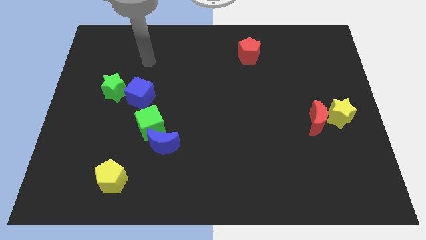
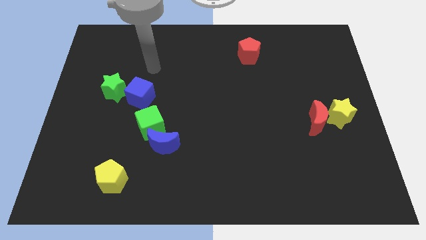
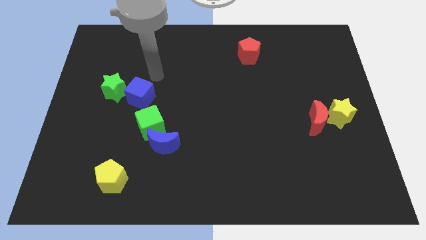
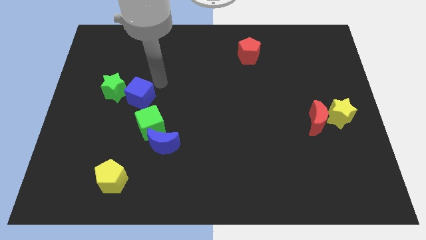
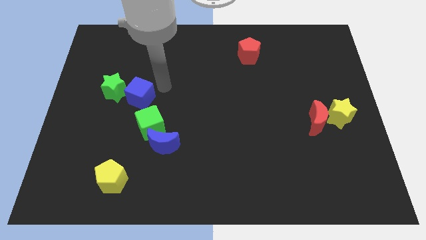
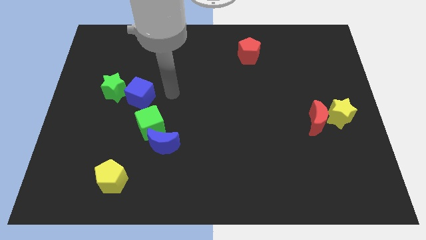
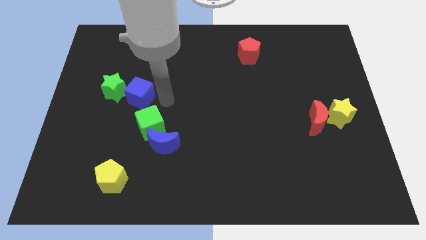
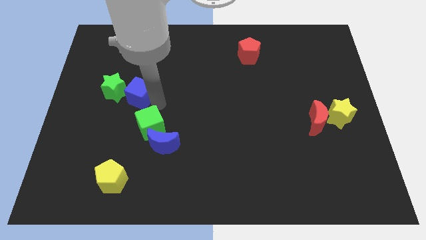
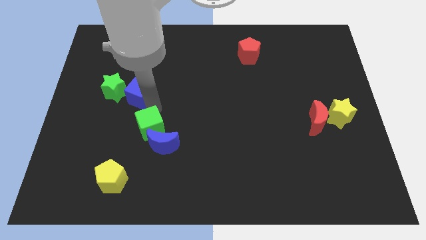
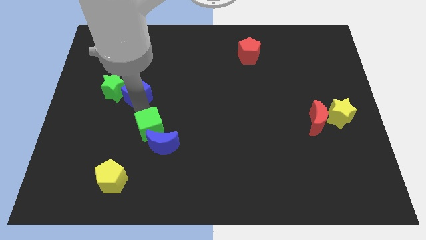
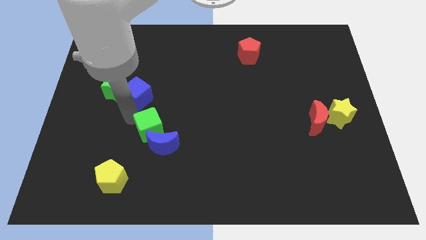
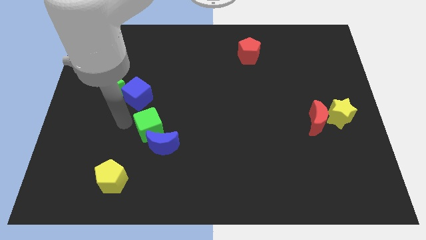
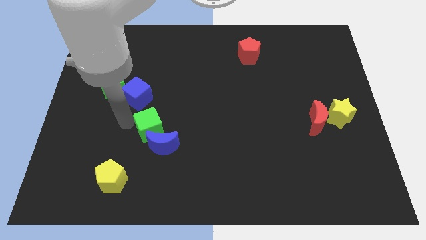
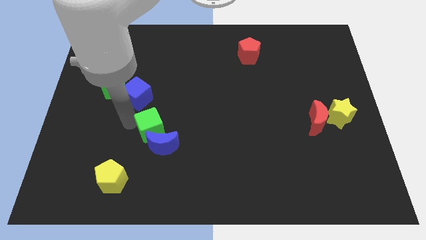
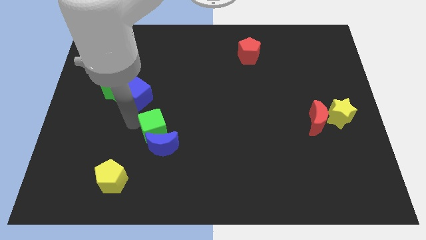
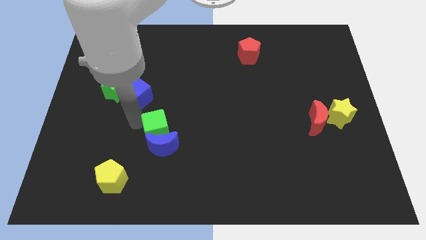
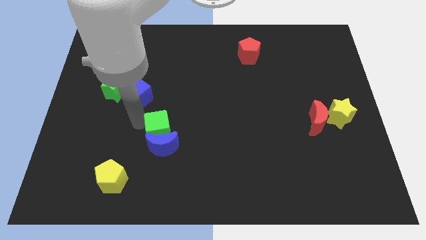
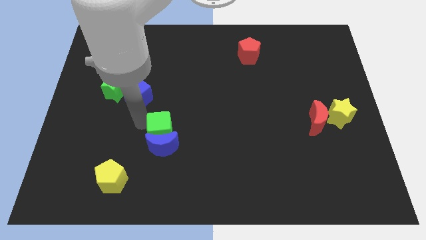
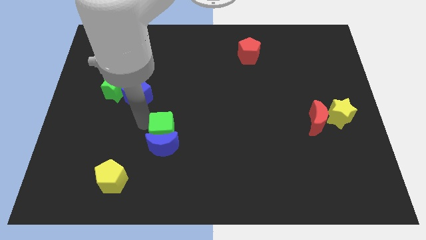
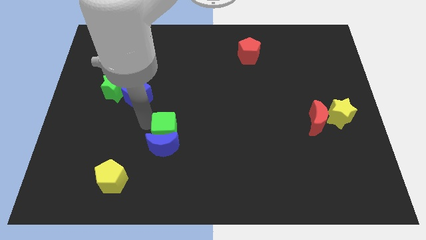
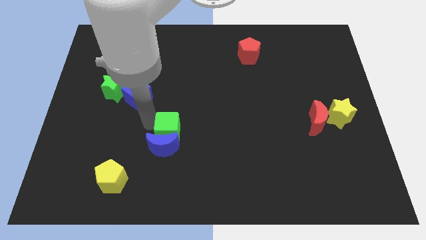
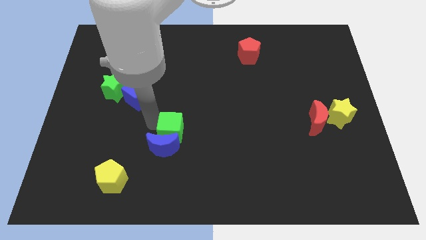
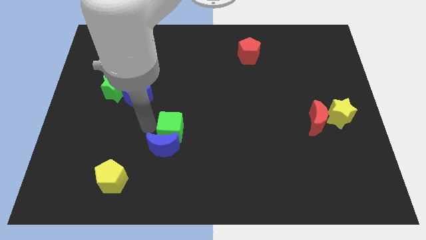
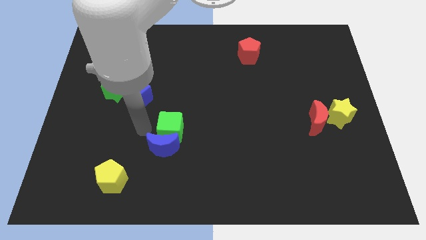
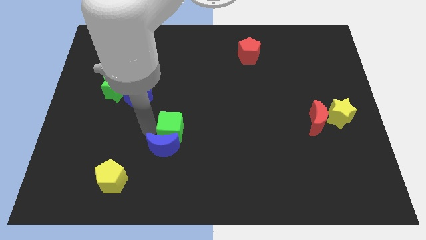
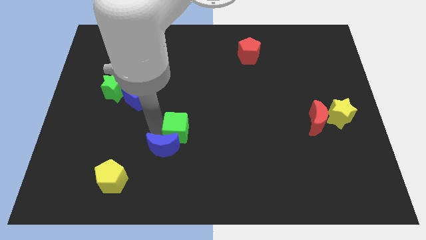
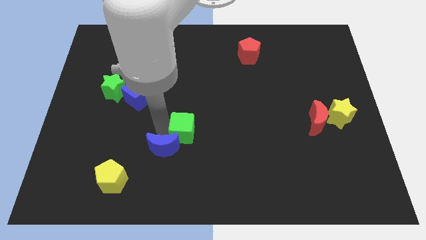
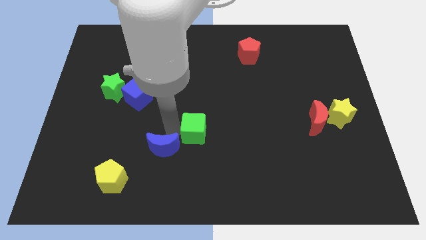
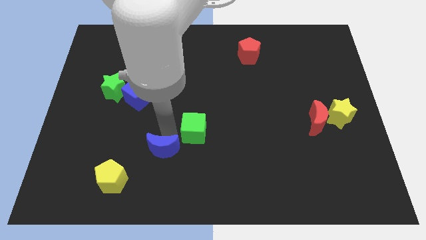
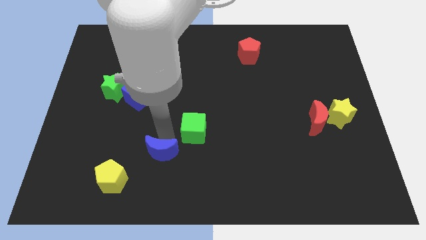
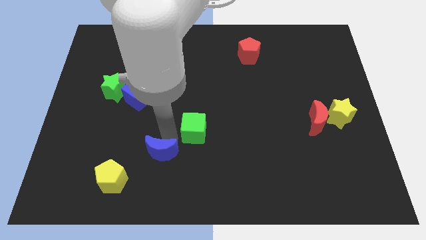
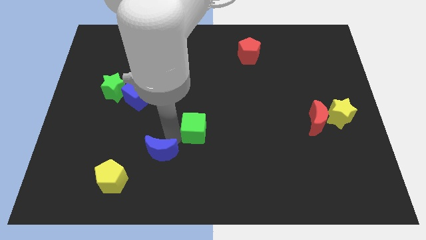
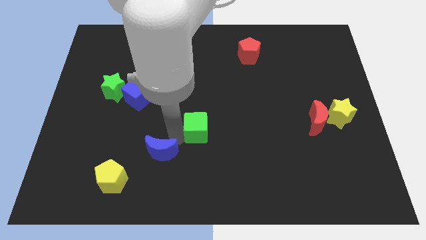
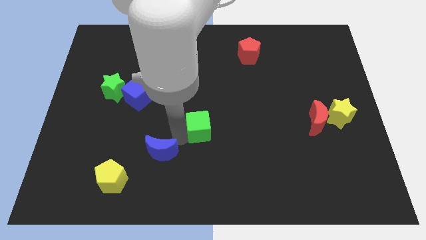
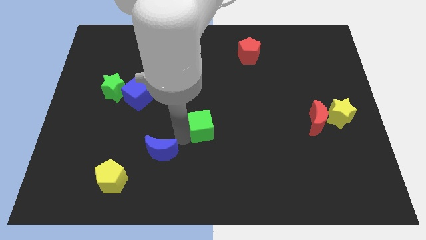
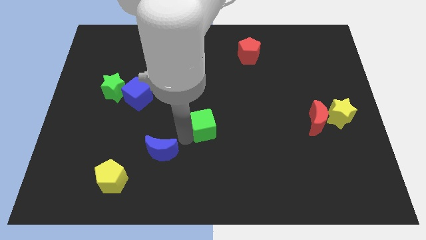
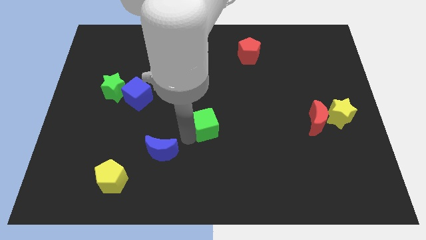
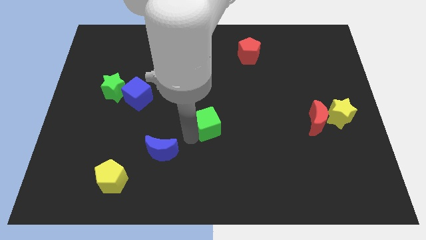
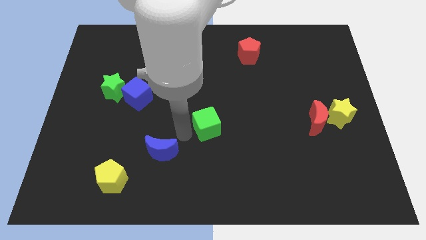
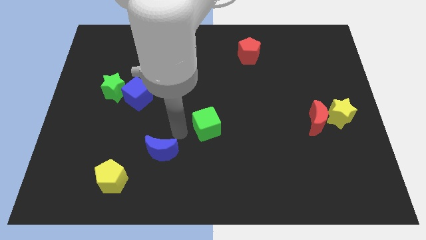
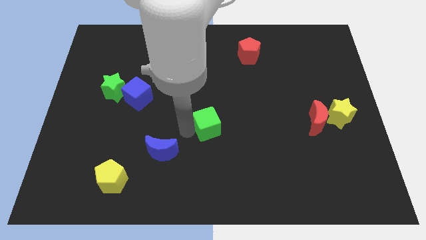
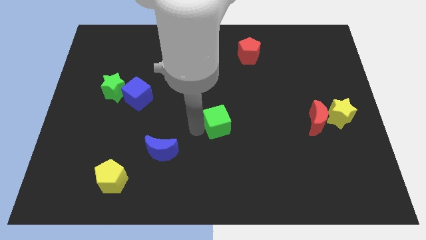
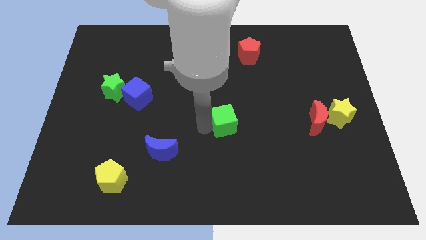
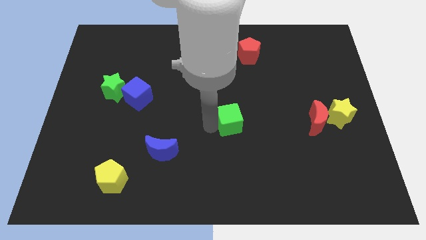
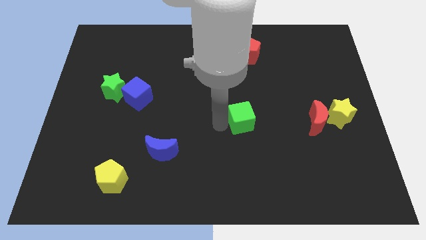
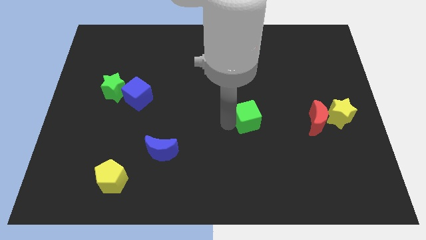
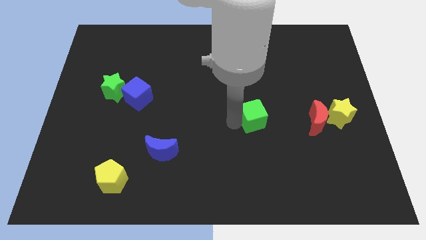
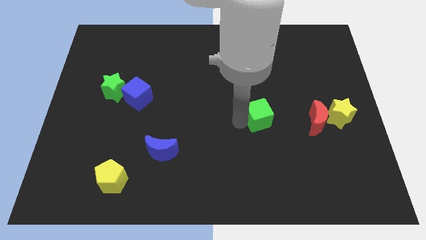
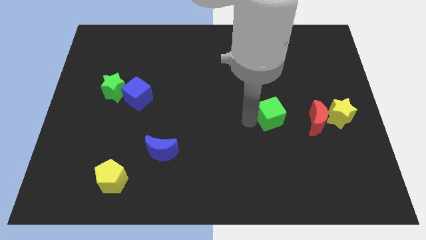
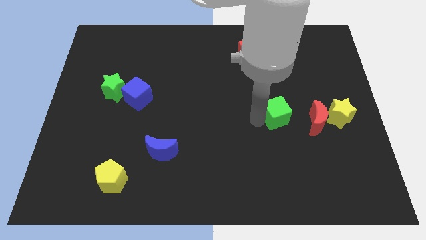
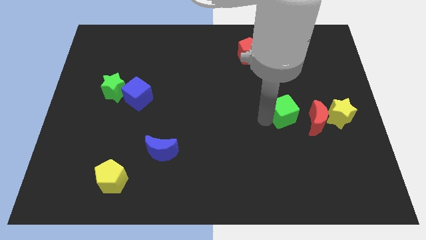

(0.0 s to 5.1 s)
move the green cube diagonally up and to the left of the red moon
